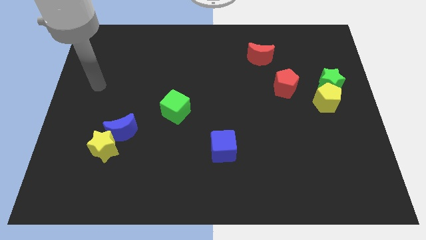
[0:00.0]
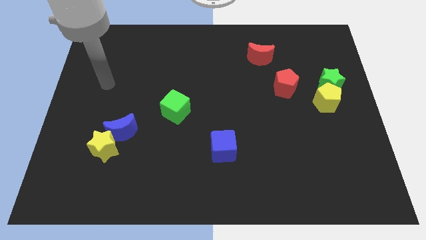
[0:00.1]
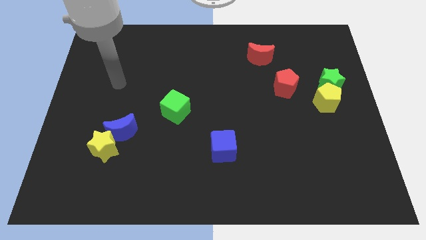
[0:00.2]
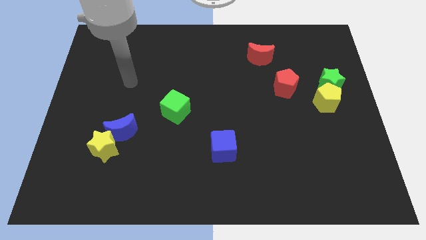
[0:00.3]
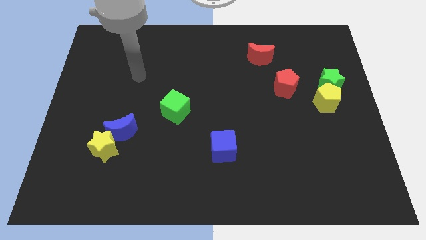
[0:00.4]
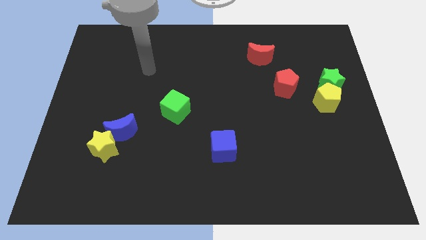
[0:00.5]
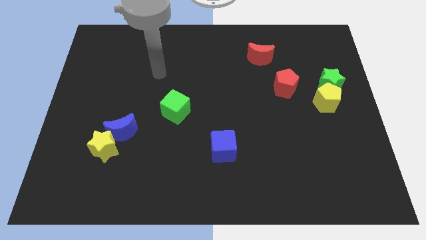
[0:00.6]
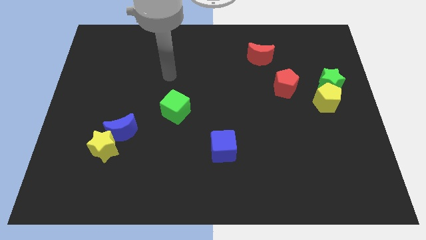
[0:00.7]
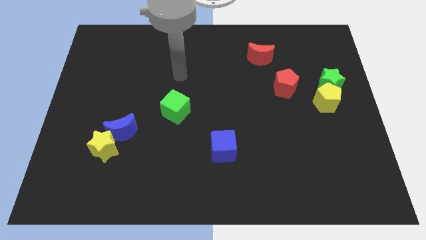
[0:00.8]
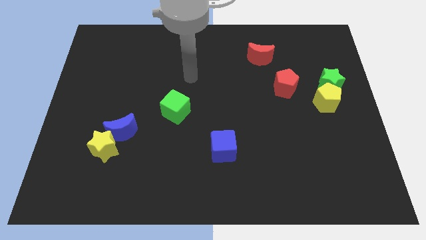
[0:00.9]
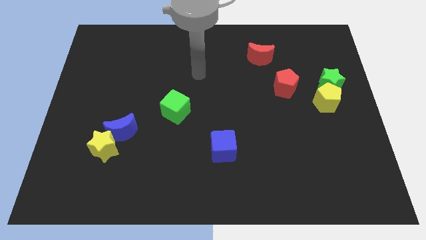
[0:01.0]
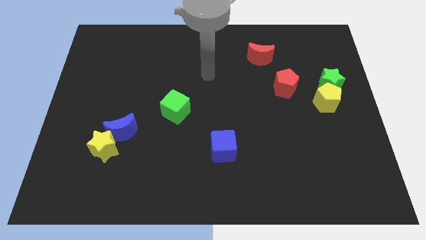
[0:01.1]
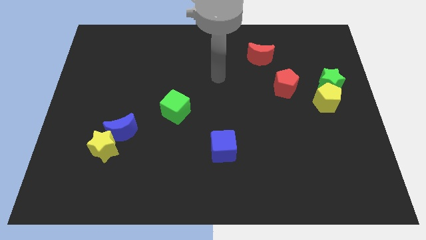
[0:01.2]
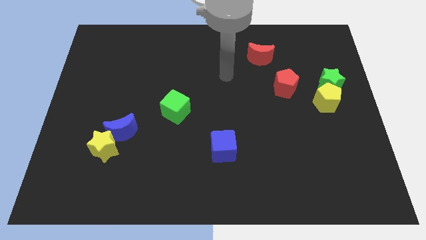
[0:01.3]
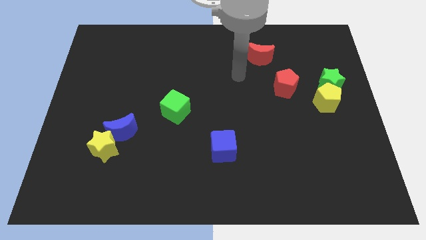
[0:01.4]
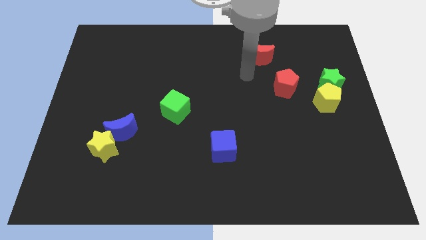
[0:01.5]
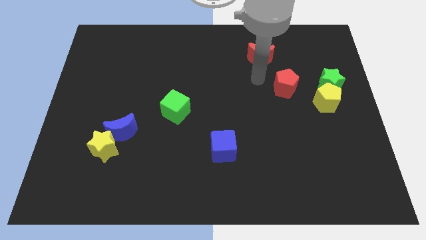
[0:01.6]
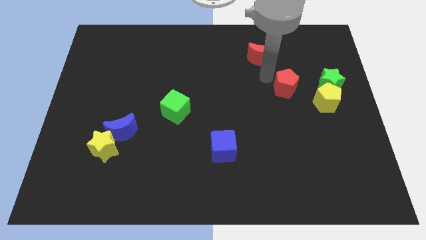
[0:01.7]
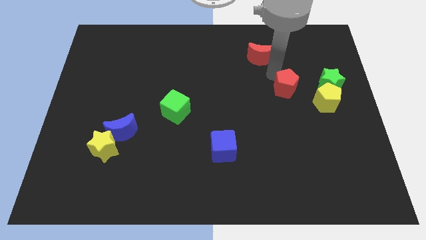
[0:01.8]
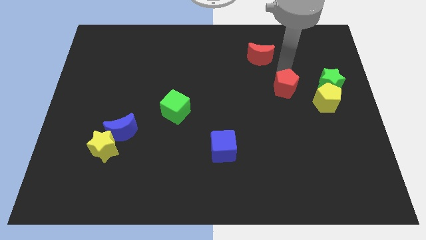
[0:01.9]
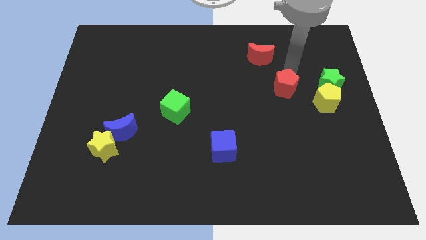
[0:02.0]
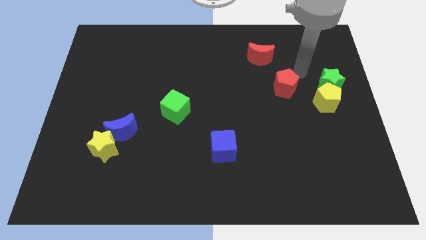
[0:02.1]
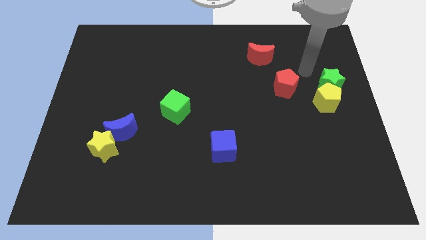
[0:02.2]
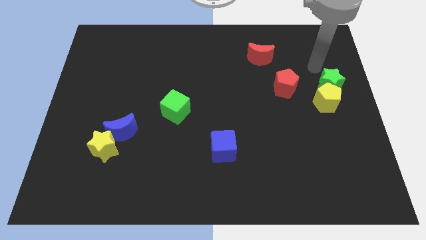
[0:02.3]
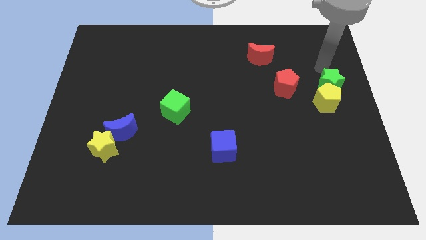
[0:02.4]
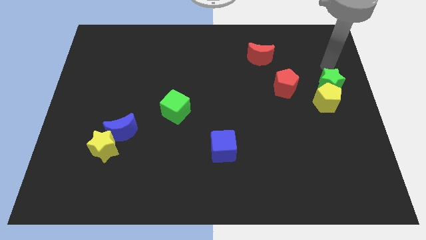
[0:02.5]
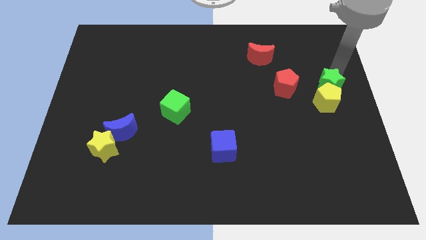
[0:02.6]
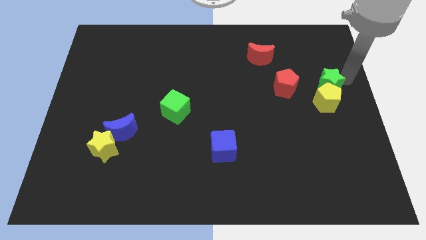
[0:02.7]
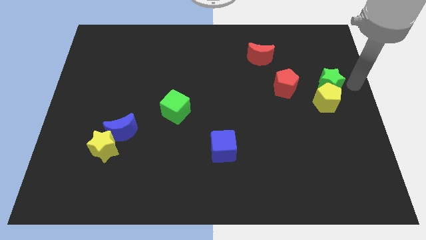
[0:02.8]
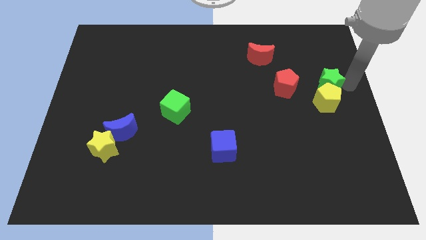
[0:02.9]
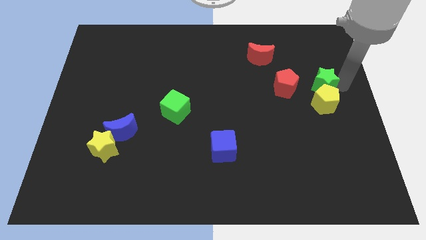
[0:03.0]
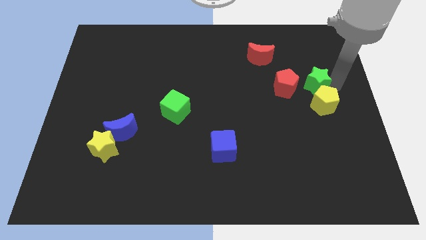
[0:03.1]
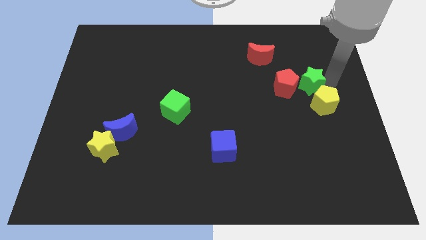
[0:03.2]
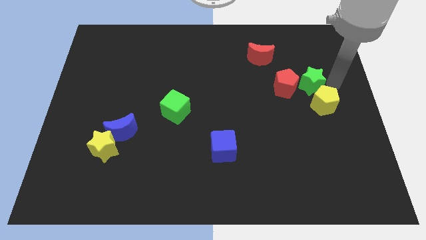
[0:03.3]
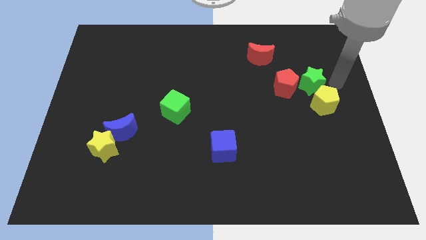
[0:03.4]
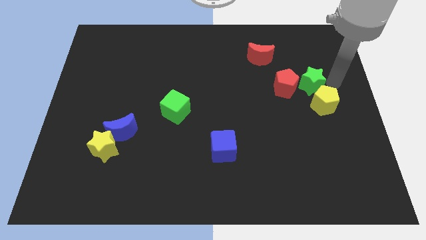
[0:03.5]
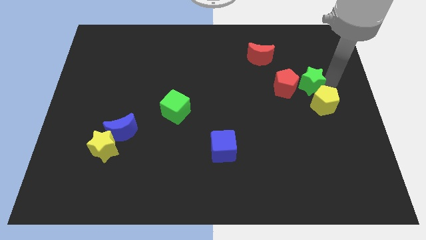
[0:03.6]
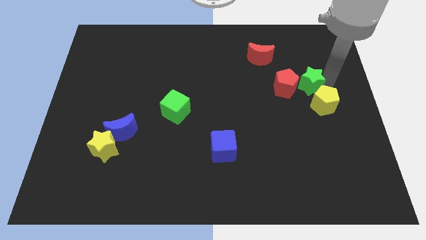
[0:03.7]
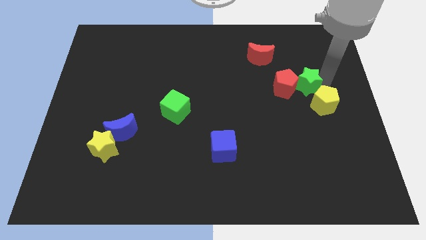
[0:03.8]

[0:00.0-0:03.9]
move the green star towards the red pentagon

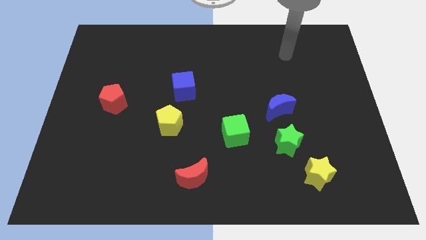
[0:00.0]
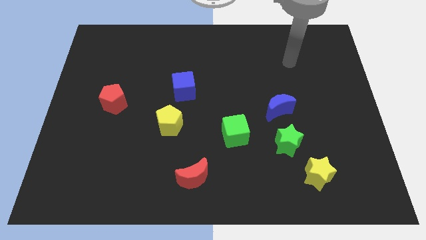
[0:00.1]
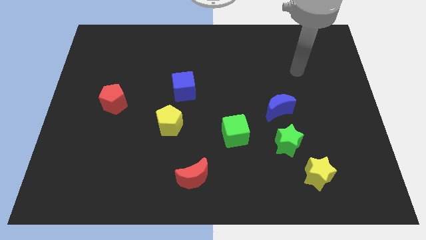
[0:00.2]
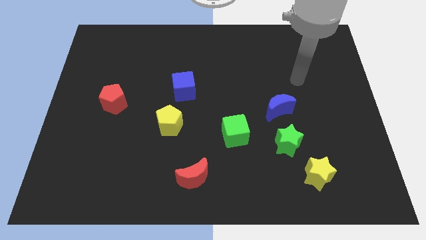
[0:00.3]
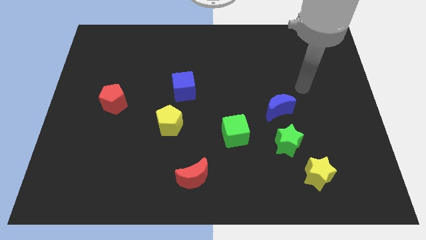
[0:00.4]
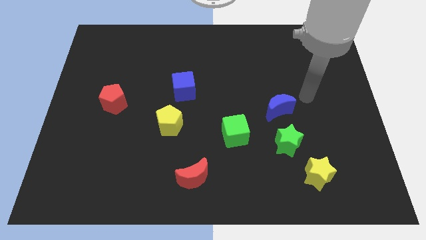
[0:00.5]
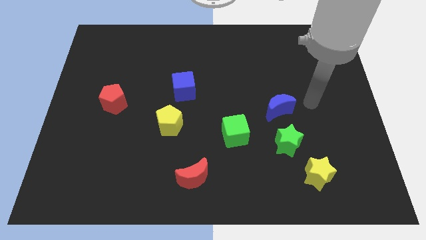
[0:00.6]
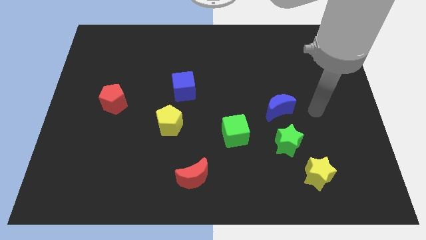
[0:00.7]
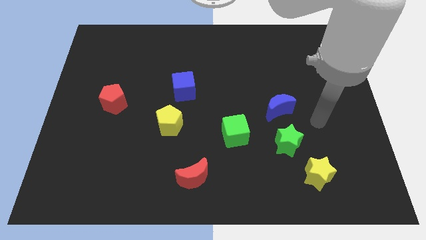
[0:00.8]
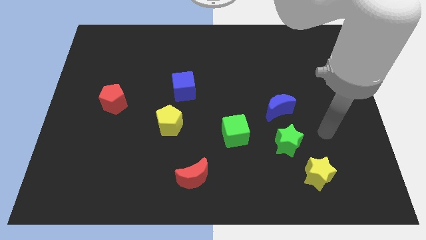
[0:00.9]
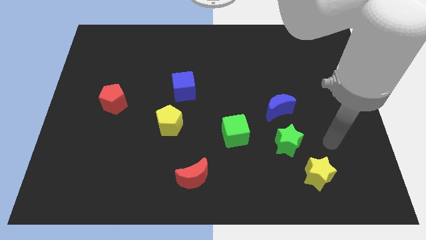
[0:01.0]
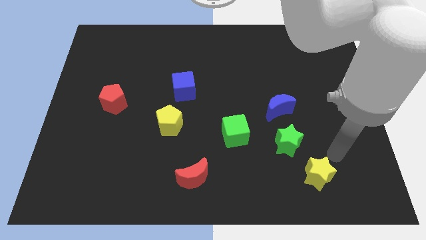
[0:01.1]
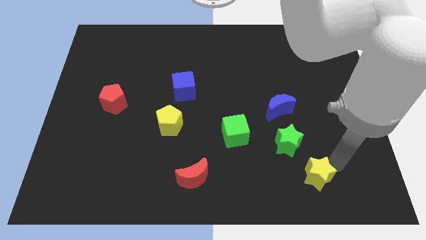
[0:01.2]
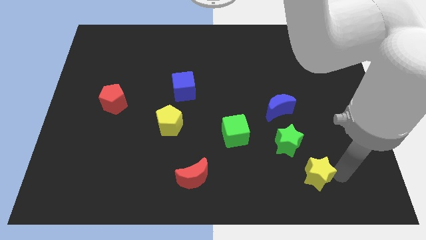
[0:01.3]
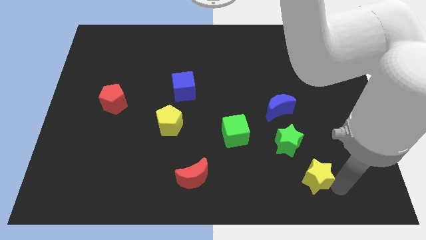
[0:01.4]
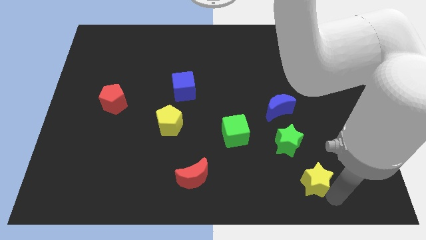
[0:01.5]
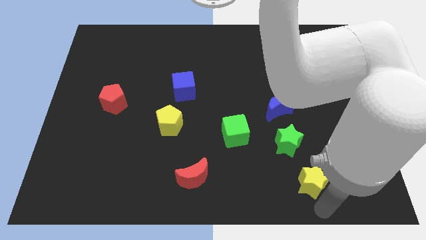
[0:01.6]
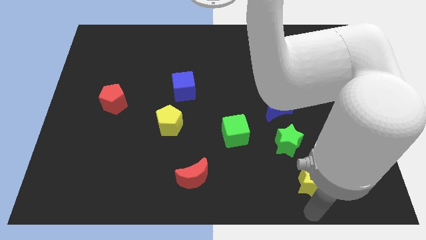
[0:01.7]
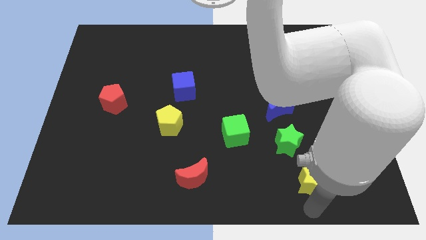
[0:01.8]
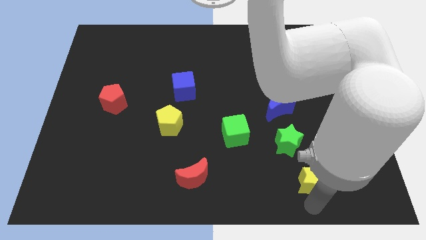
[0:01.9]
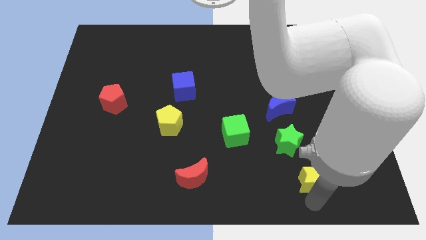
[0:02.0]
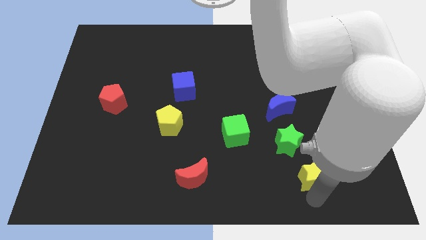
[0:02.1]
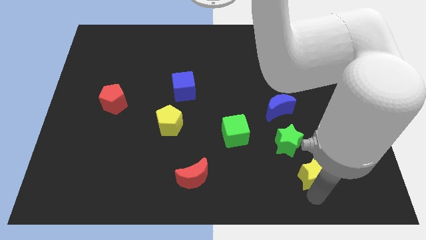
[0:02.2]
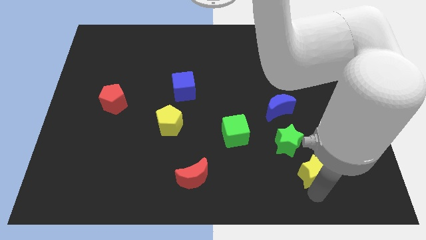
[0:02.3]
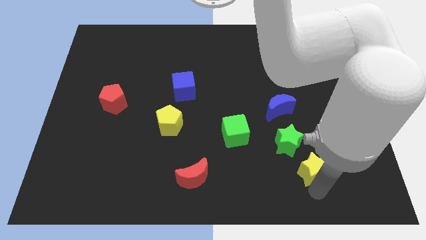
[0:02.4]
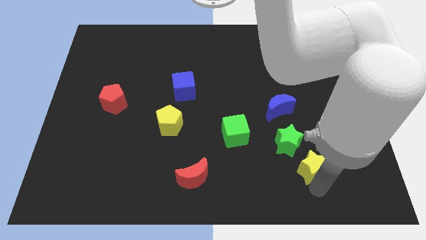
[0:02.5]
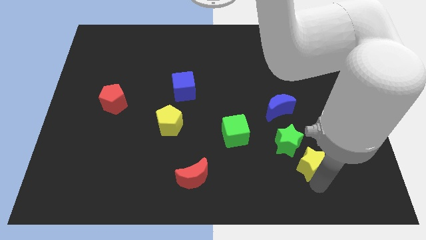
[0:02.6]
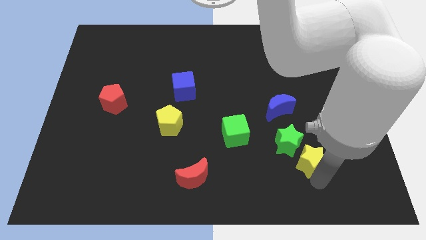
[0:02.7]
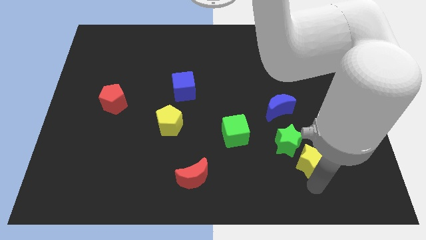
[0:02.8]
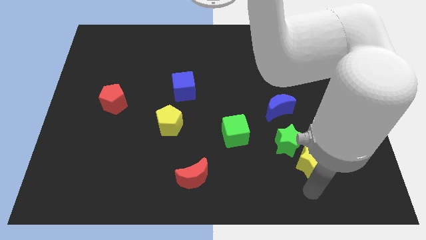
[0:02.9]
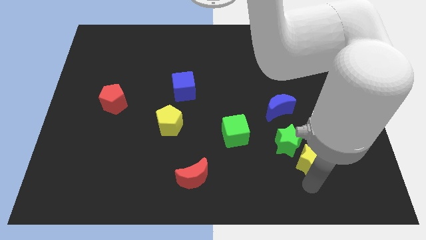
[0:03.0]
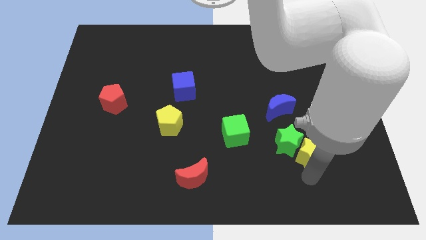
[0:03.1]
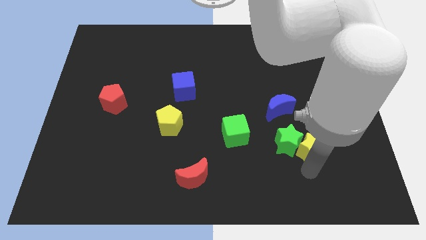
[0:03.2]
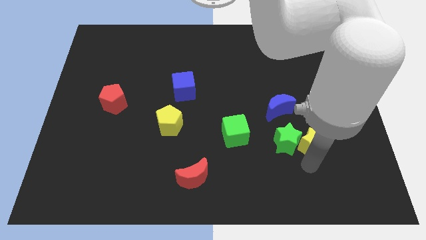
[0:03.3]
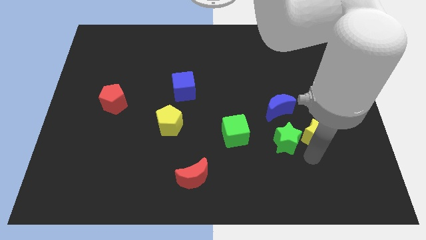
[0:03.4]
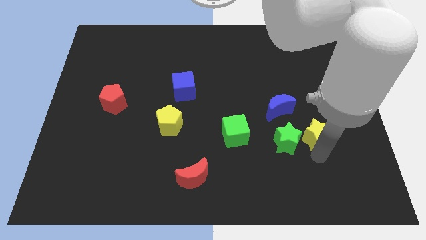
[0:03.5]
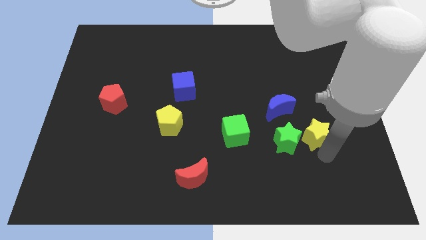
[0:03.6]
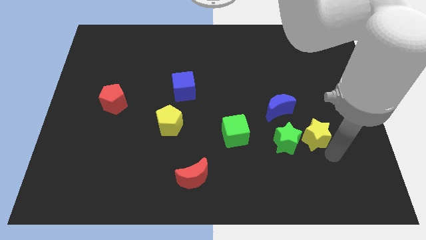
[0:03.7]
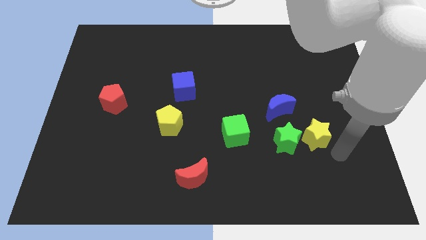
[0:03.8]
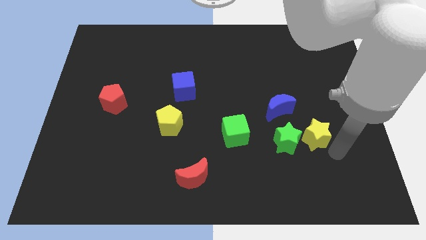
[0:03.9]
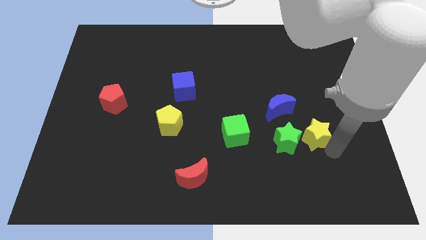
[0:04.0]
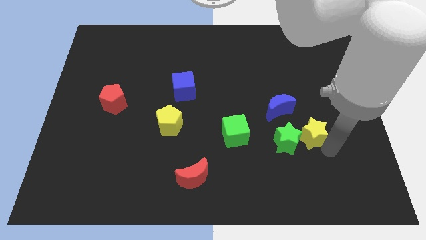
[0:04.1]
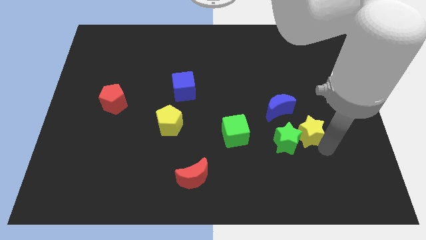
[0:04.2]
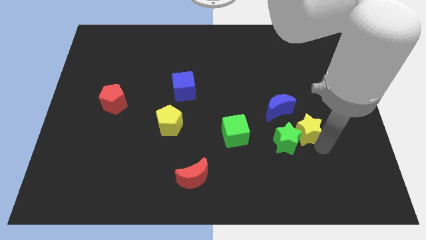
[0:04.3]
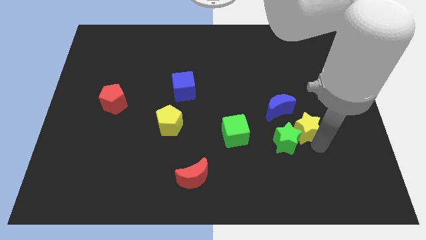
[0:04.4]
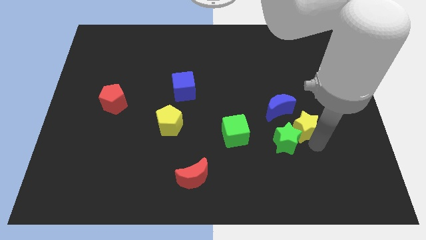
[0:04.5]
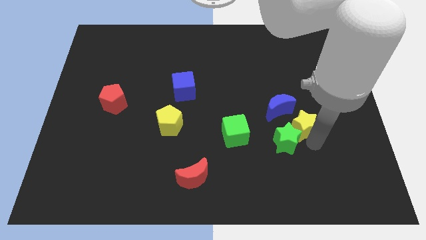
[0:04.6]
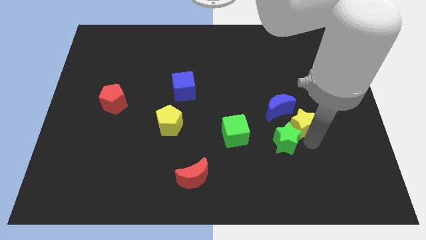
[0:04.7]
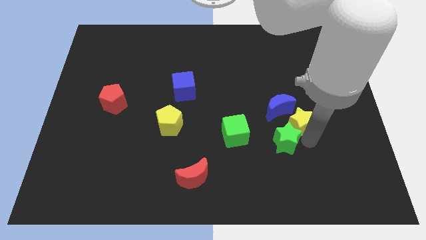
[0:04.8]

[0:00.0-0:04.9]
move the yellow star towards the blue moon
